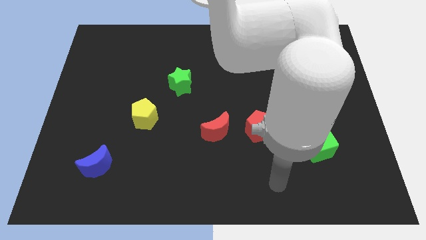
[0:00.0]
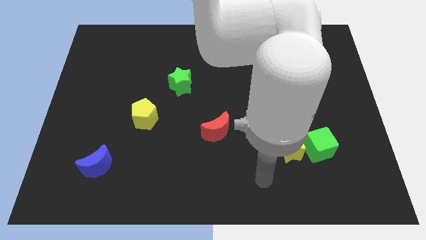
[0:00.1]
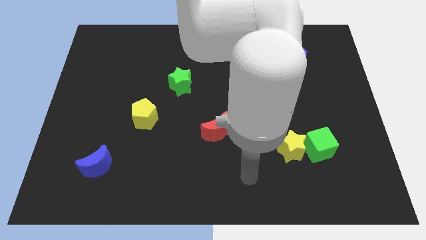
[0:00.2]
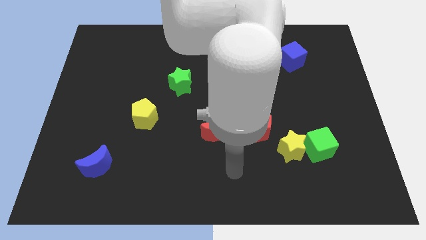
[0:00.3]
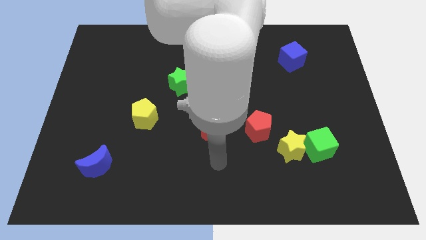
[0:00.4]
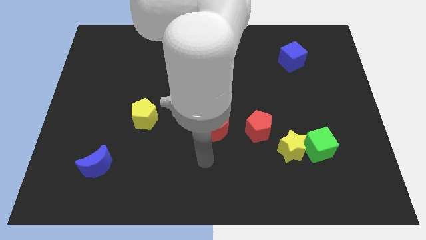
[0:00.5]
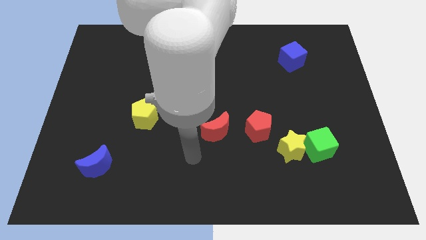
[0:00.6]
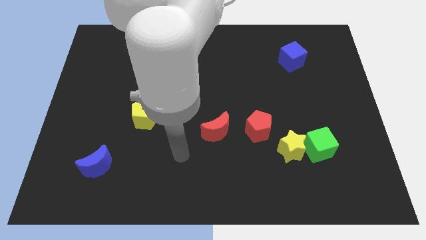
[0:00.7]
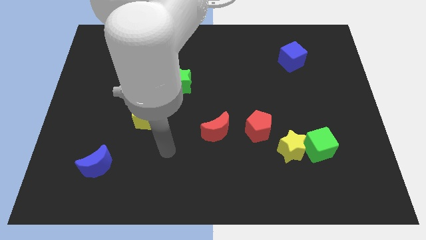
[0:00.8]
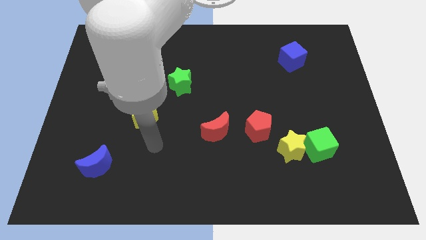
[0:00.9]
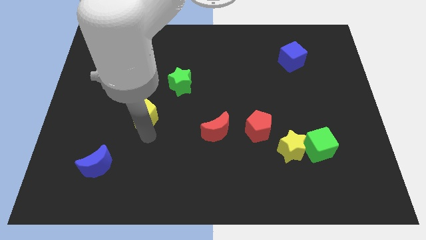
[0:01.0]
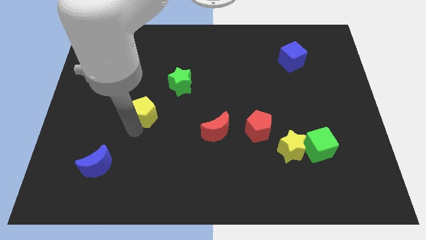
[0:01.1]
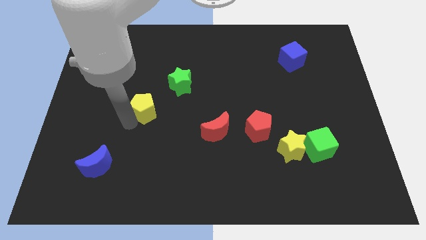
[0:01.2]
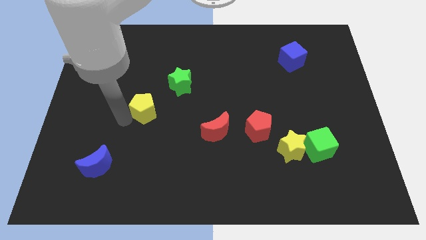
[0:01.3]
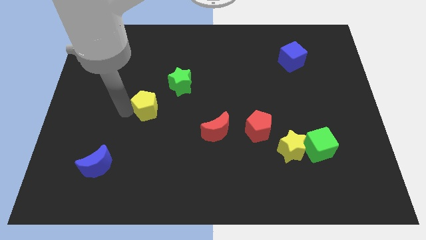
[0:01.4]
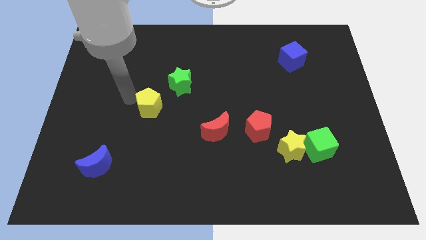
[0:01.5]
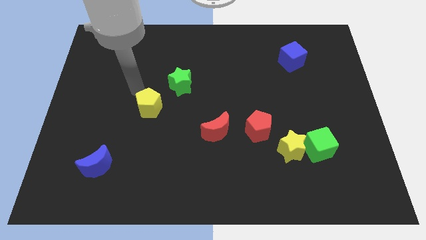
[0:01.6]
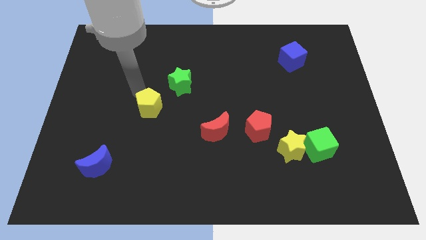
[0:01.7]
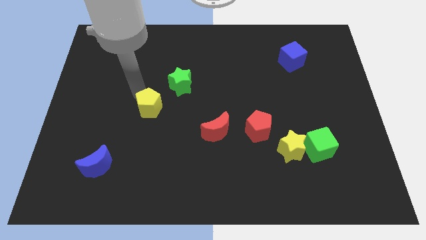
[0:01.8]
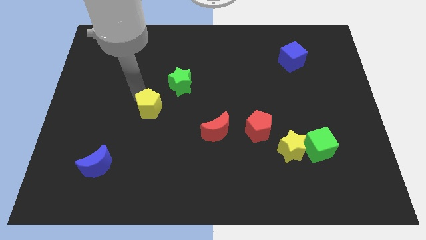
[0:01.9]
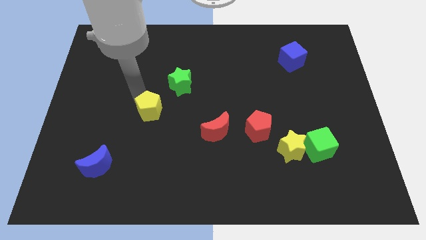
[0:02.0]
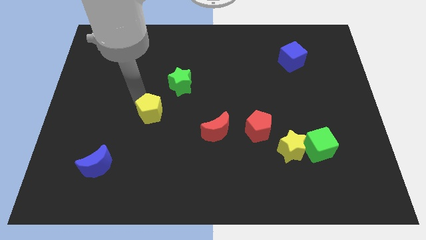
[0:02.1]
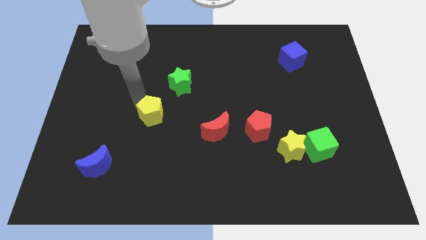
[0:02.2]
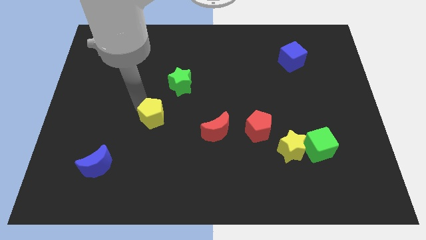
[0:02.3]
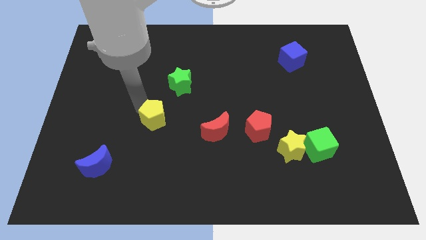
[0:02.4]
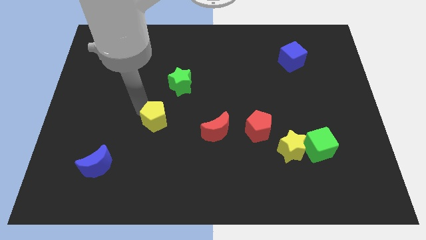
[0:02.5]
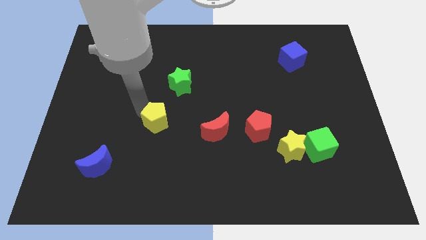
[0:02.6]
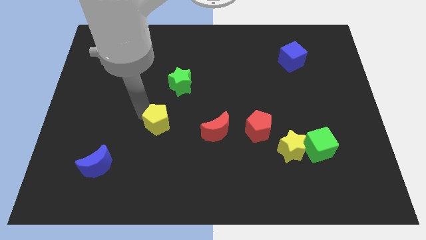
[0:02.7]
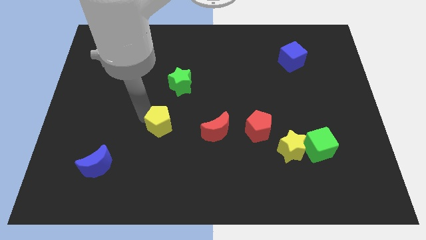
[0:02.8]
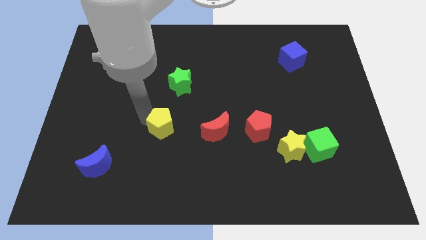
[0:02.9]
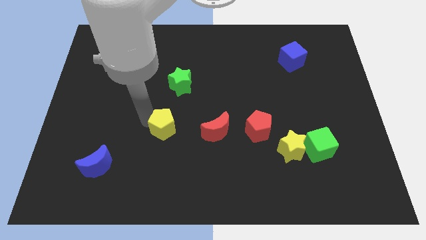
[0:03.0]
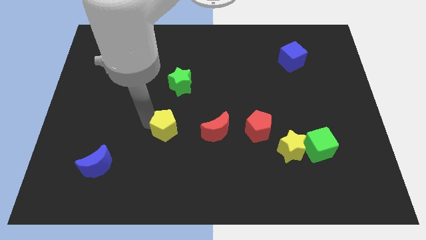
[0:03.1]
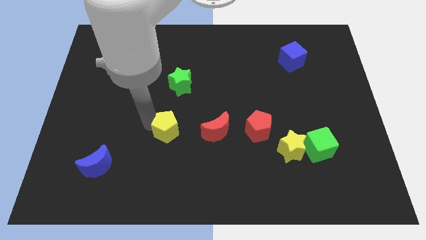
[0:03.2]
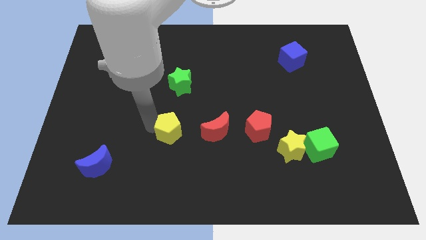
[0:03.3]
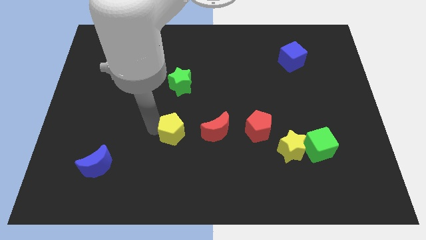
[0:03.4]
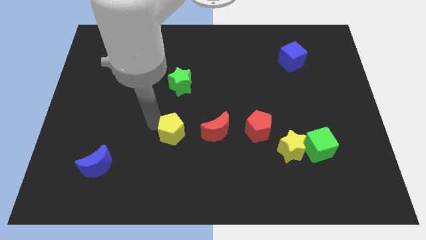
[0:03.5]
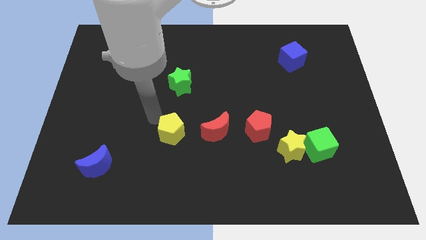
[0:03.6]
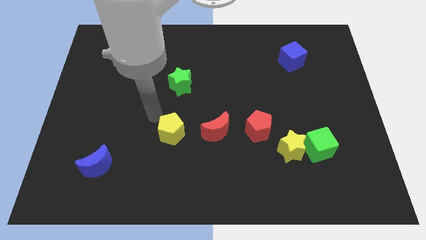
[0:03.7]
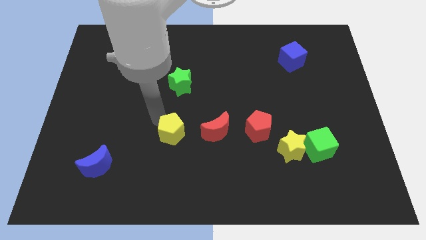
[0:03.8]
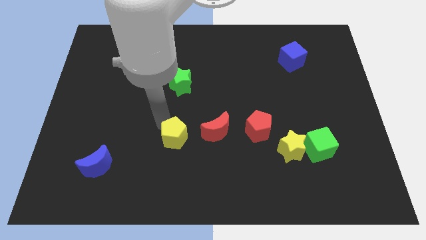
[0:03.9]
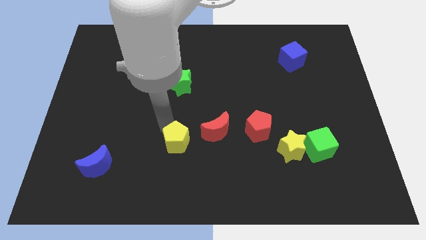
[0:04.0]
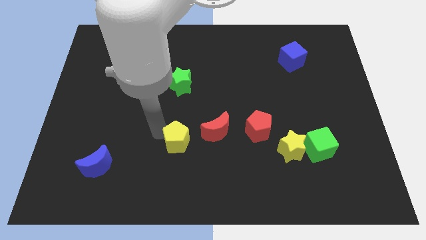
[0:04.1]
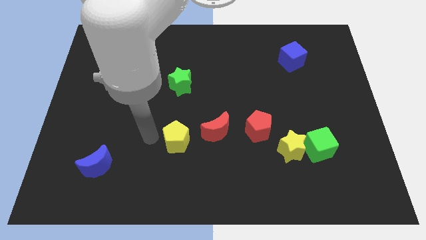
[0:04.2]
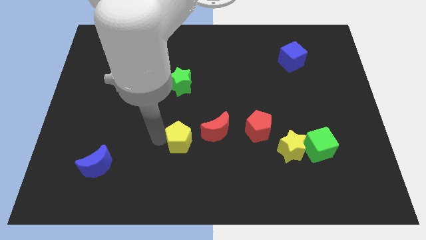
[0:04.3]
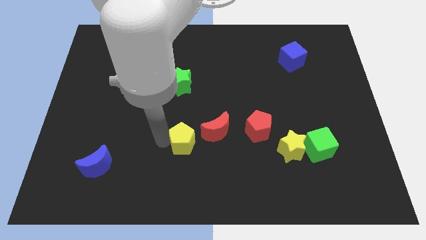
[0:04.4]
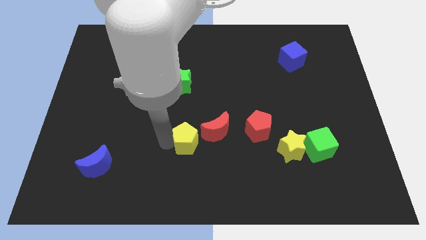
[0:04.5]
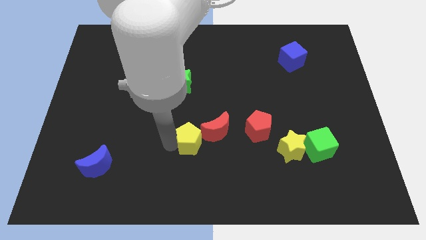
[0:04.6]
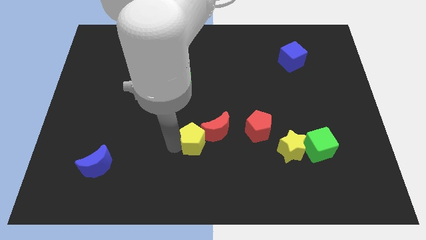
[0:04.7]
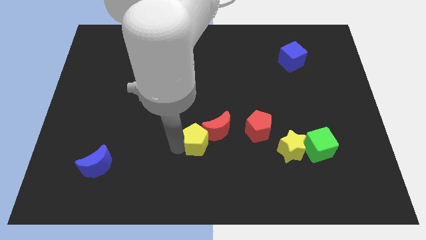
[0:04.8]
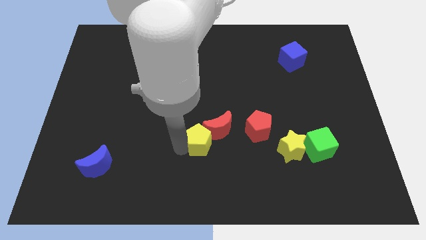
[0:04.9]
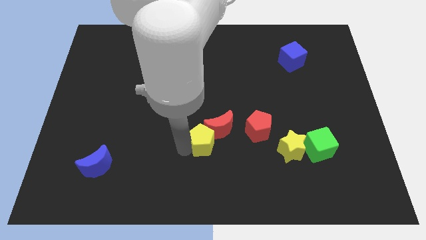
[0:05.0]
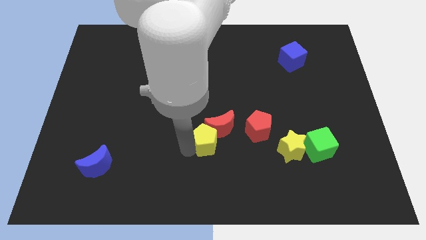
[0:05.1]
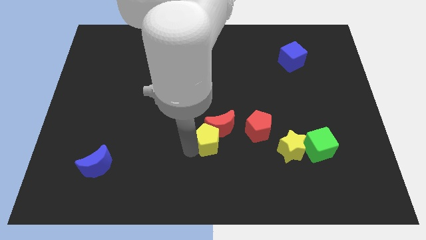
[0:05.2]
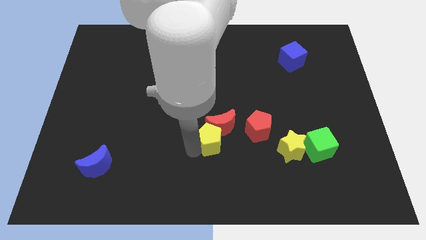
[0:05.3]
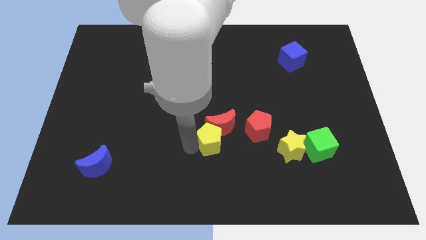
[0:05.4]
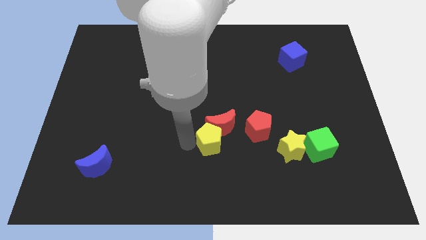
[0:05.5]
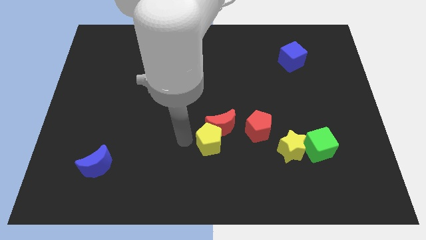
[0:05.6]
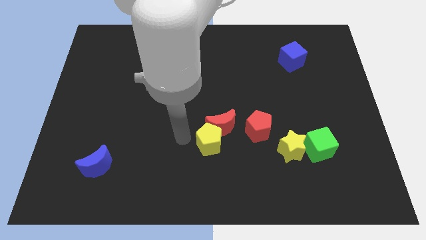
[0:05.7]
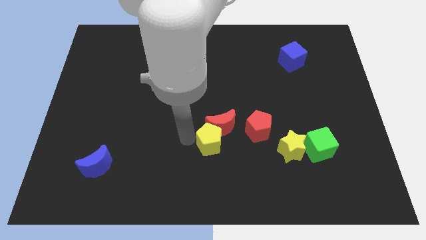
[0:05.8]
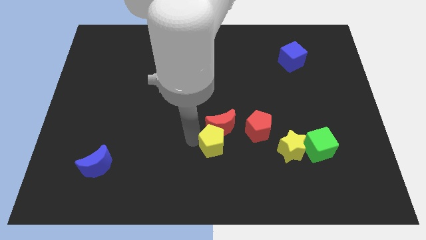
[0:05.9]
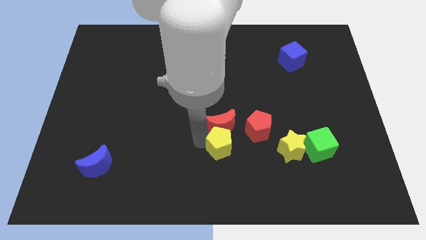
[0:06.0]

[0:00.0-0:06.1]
push the yellow pentagon to the left side of the yellow star
